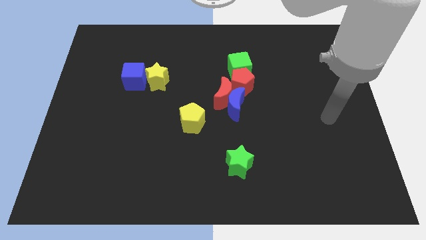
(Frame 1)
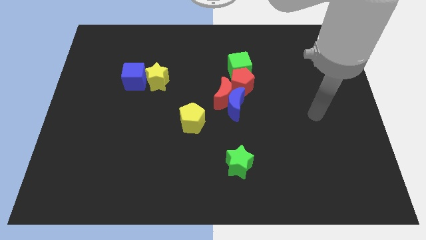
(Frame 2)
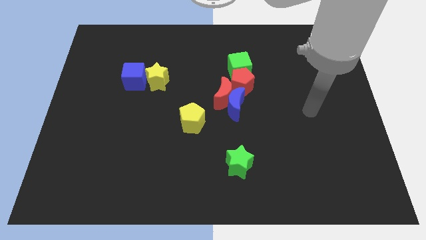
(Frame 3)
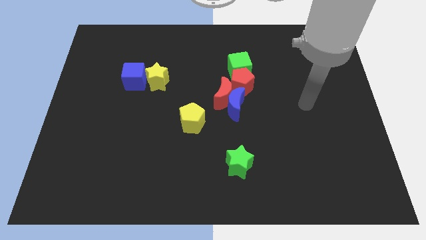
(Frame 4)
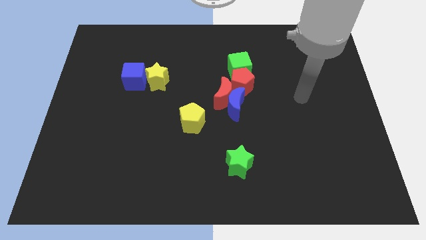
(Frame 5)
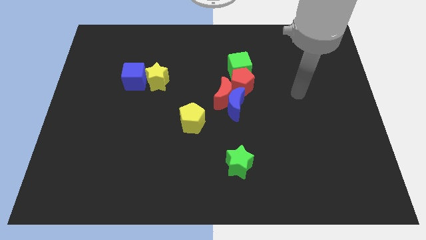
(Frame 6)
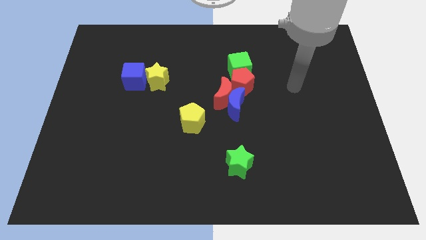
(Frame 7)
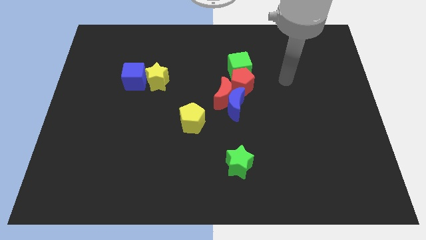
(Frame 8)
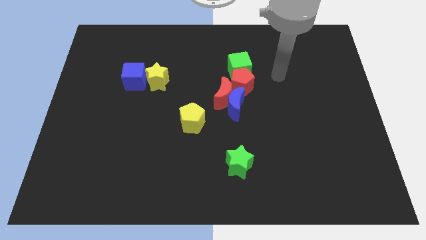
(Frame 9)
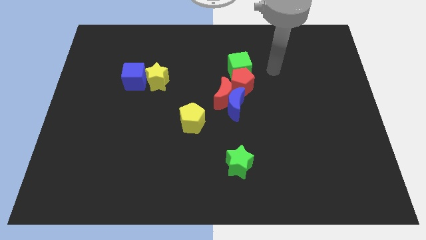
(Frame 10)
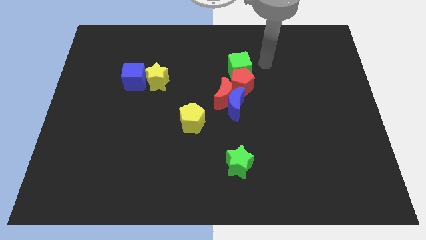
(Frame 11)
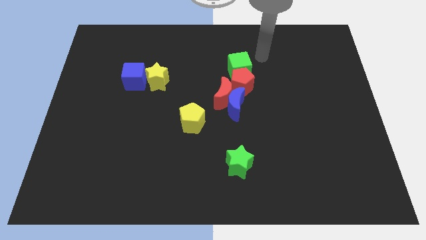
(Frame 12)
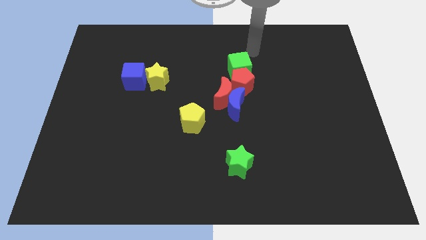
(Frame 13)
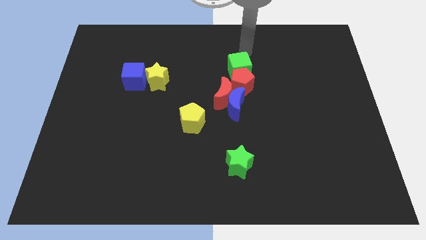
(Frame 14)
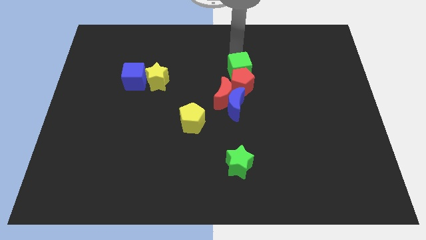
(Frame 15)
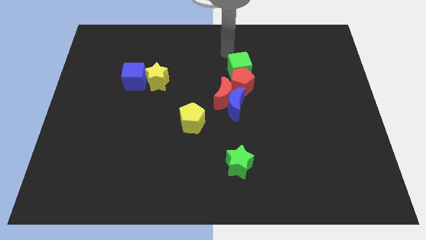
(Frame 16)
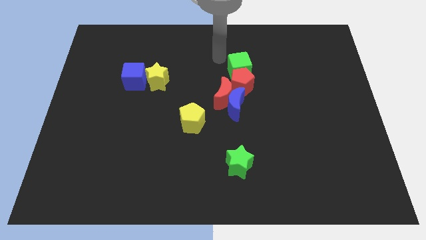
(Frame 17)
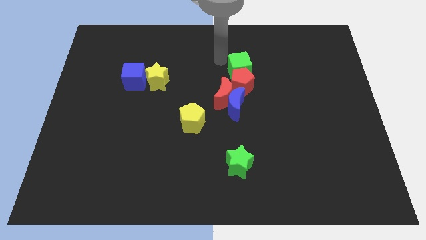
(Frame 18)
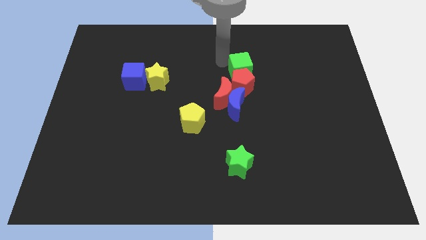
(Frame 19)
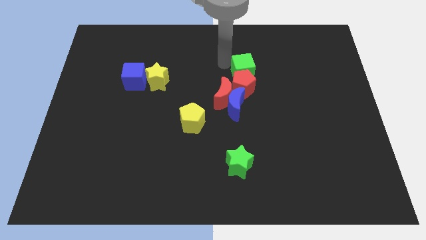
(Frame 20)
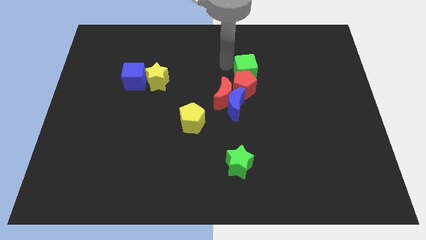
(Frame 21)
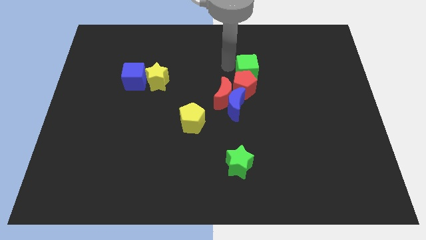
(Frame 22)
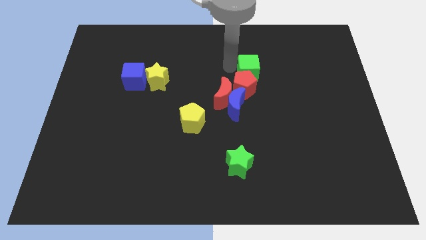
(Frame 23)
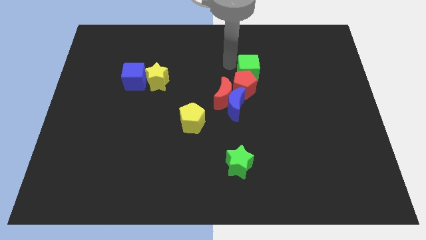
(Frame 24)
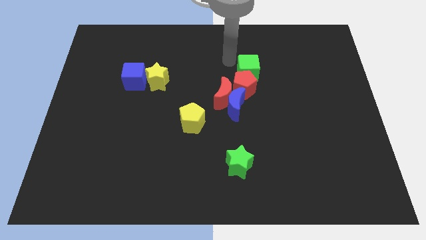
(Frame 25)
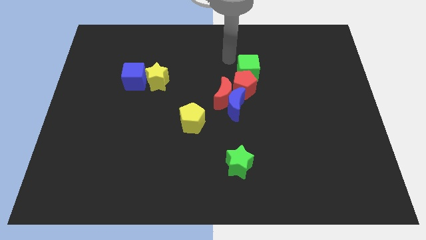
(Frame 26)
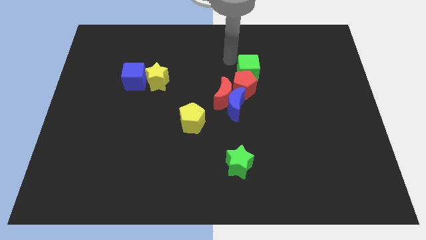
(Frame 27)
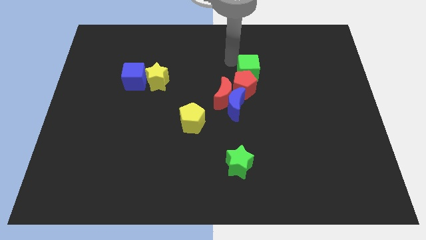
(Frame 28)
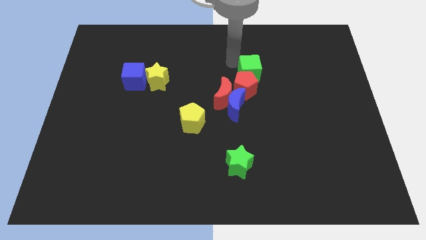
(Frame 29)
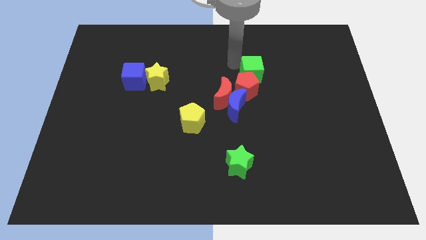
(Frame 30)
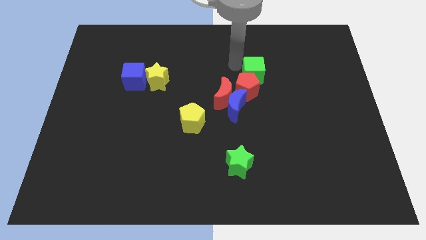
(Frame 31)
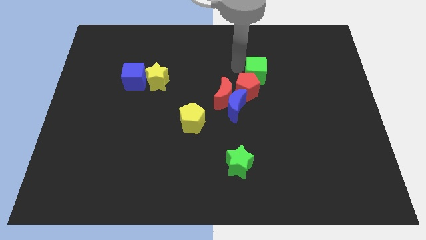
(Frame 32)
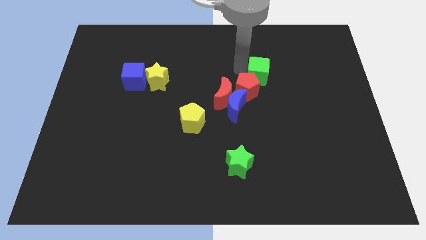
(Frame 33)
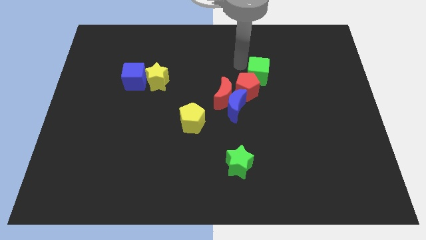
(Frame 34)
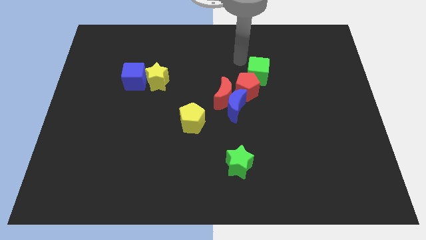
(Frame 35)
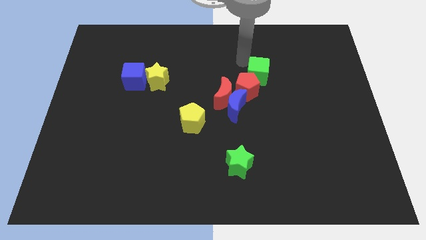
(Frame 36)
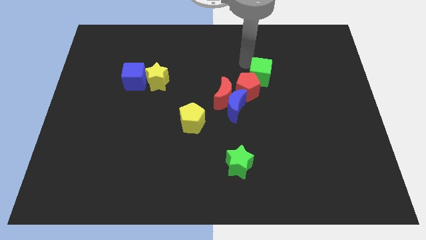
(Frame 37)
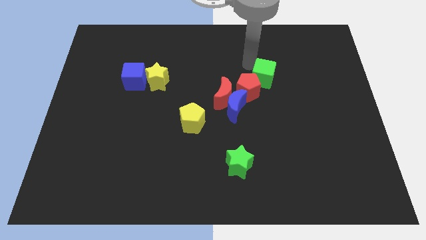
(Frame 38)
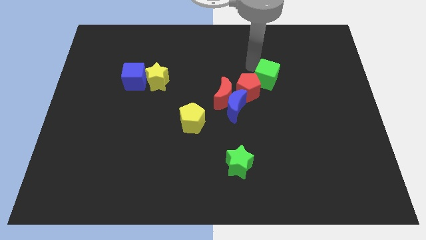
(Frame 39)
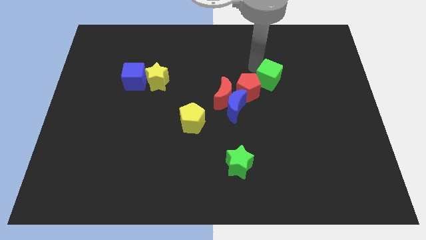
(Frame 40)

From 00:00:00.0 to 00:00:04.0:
slide the green cube downwards and to the right a bit

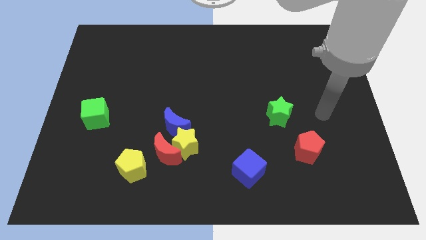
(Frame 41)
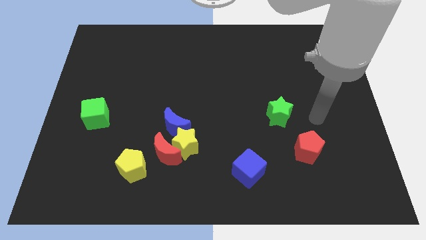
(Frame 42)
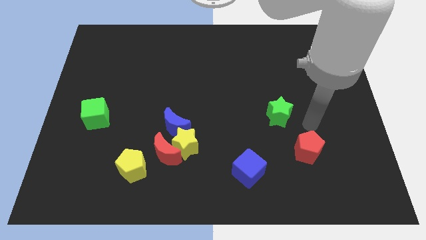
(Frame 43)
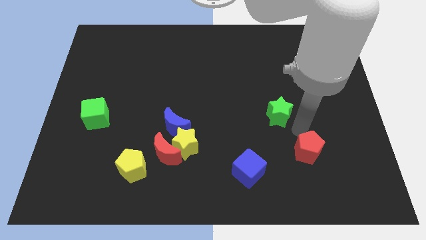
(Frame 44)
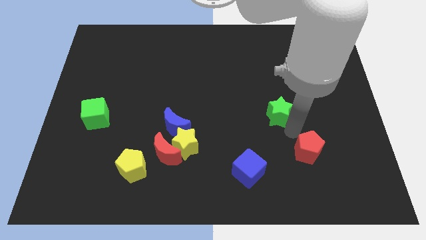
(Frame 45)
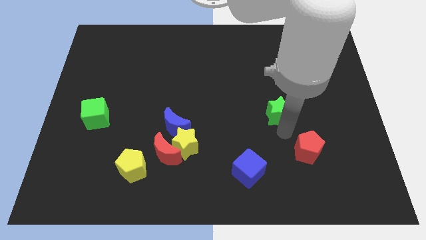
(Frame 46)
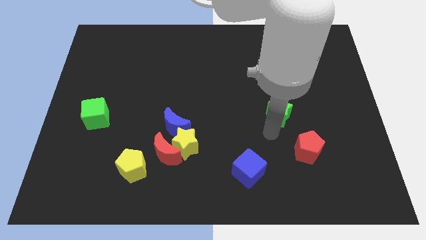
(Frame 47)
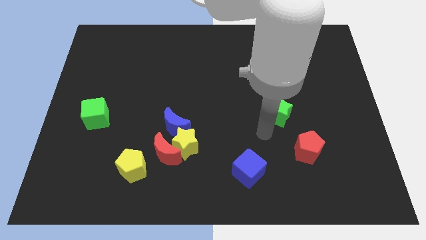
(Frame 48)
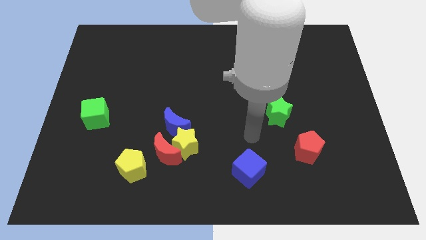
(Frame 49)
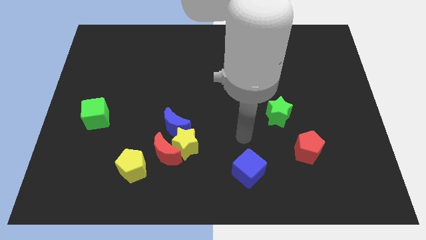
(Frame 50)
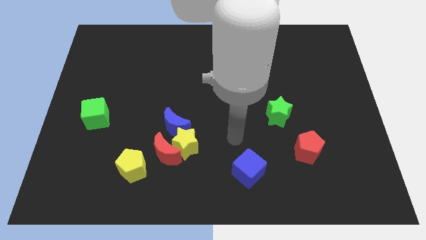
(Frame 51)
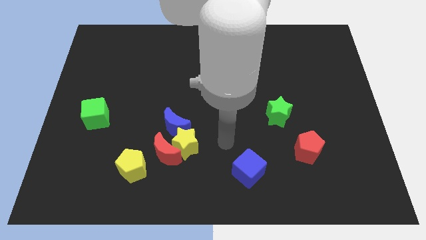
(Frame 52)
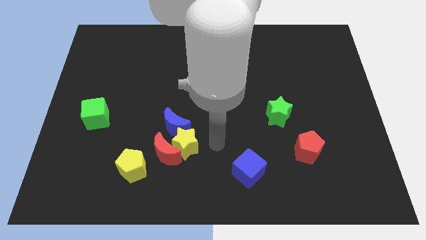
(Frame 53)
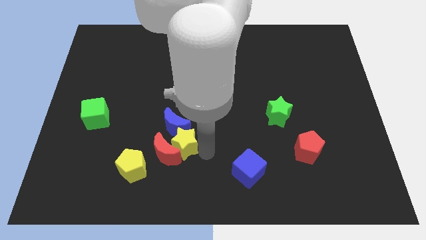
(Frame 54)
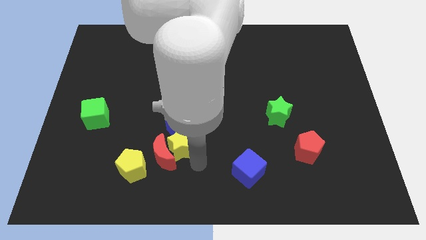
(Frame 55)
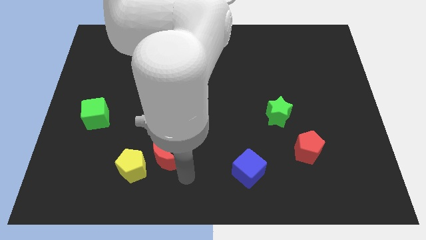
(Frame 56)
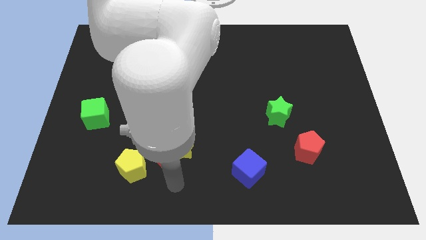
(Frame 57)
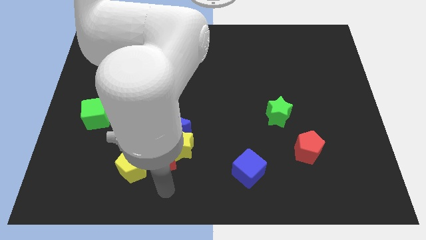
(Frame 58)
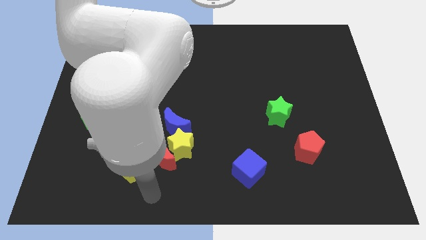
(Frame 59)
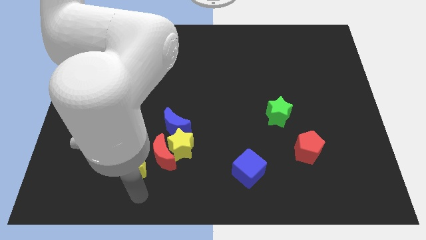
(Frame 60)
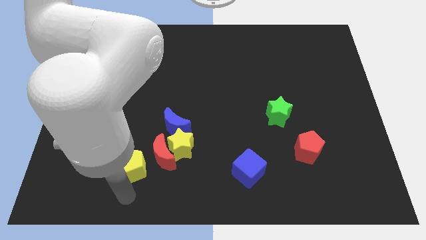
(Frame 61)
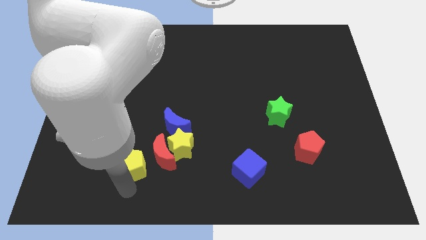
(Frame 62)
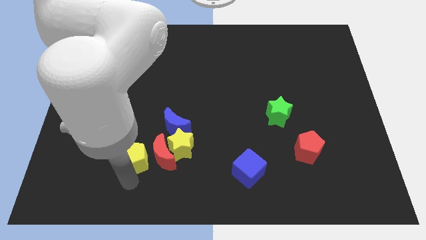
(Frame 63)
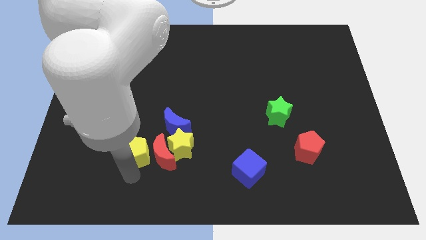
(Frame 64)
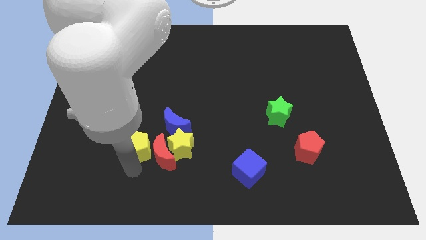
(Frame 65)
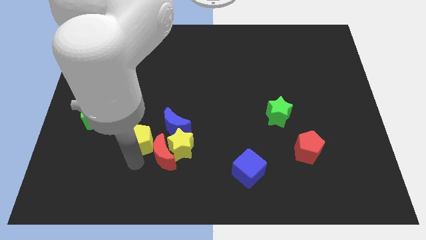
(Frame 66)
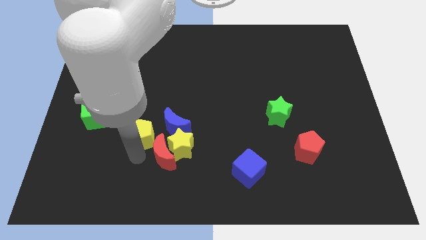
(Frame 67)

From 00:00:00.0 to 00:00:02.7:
slide the yellow pentagon a little upwards

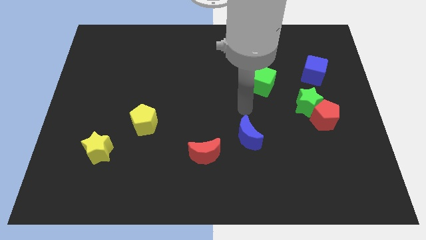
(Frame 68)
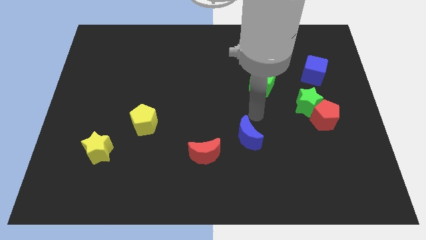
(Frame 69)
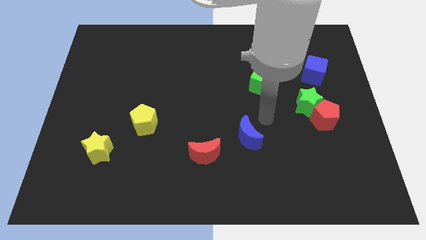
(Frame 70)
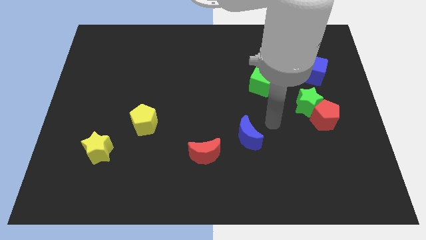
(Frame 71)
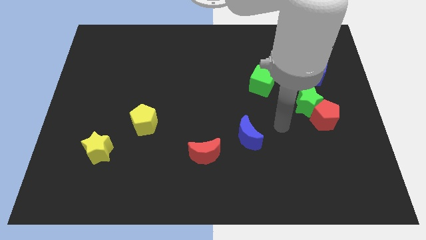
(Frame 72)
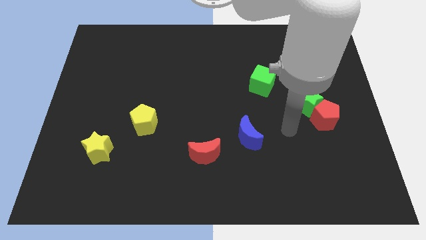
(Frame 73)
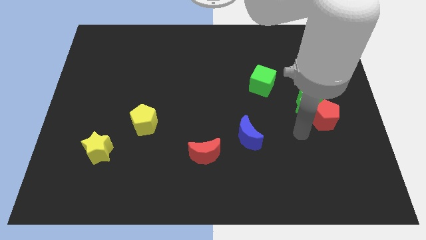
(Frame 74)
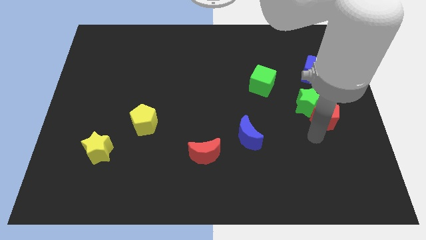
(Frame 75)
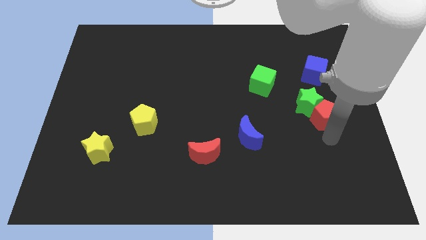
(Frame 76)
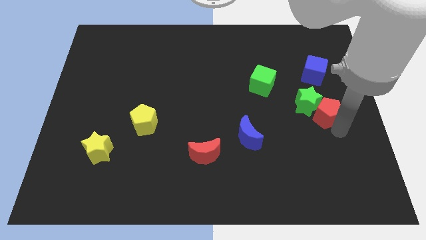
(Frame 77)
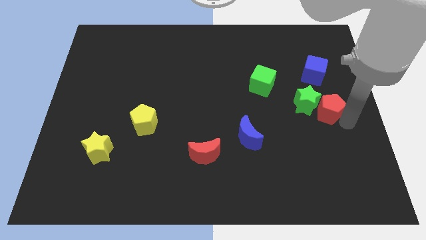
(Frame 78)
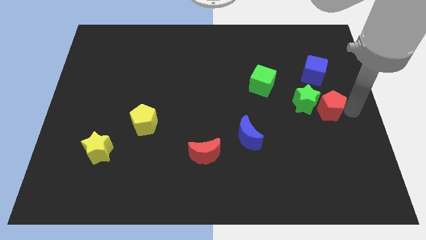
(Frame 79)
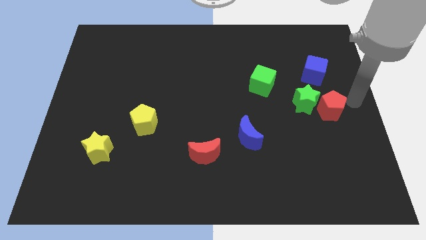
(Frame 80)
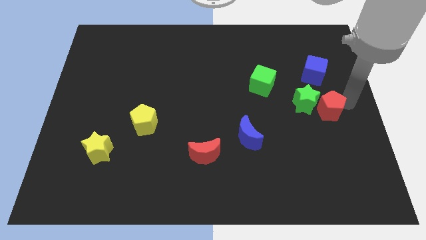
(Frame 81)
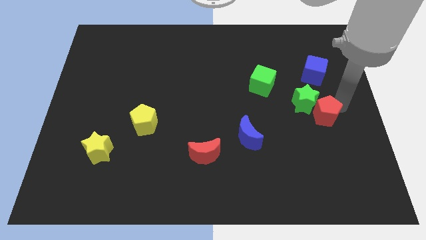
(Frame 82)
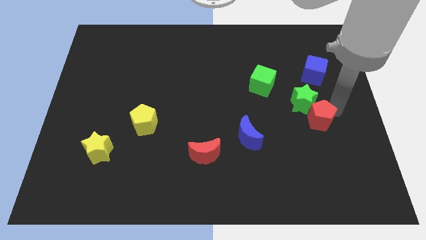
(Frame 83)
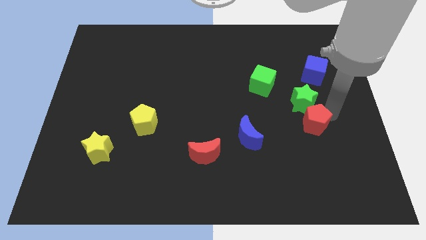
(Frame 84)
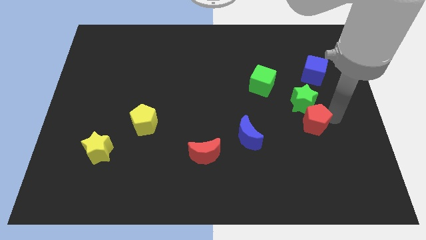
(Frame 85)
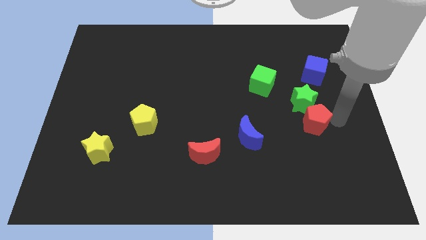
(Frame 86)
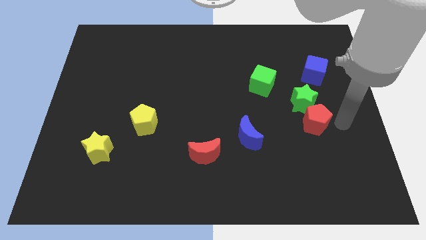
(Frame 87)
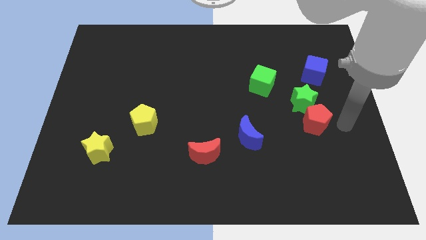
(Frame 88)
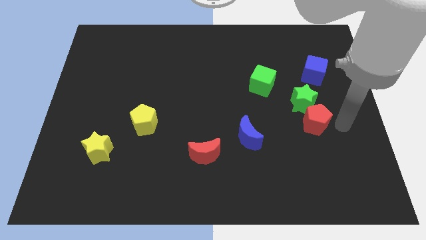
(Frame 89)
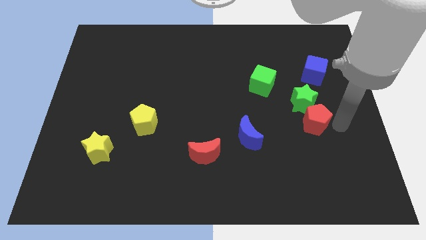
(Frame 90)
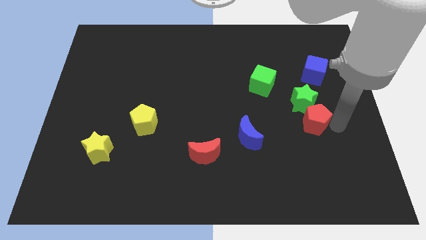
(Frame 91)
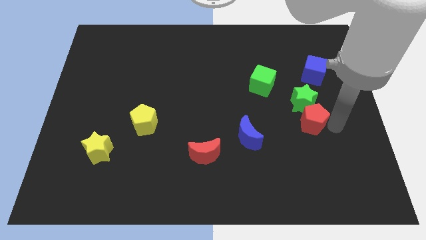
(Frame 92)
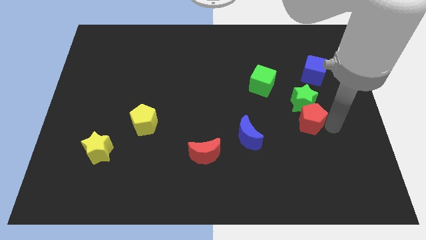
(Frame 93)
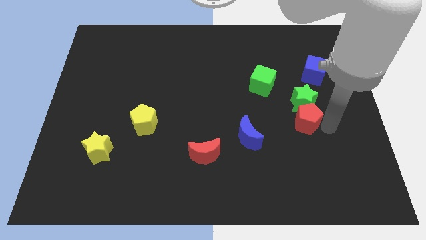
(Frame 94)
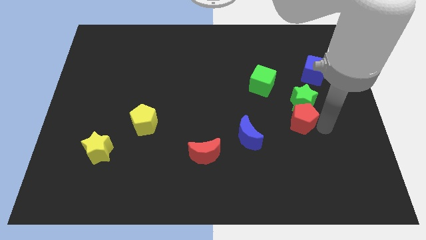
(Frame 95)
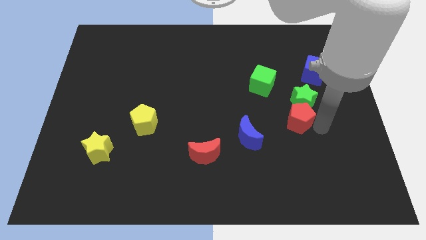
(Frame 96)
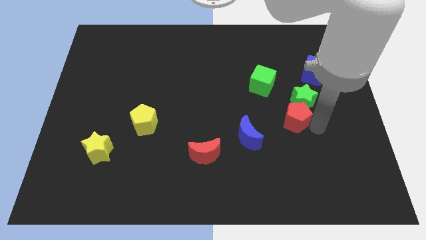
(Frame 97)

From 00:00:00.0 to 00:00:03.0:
slightly slide the red pentagon left
